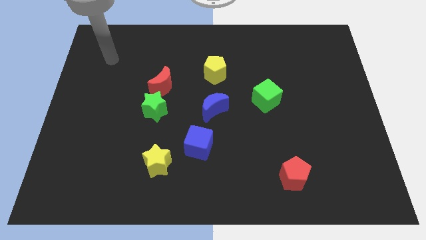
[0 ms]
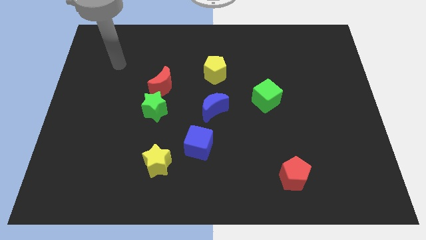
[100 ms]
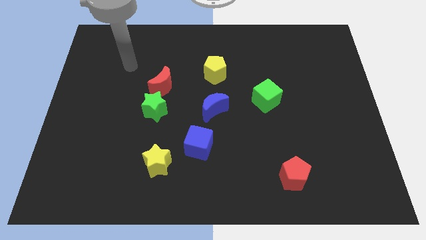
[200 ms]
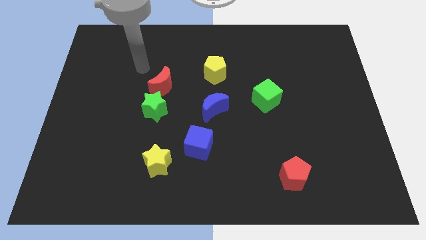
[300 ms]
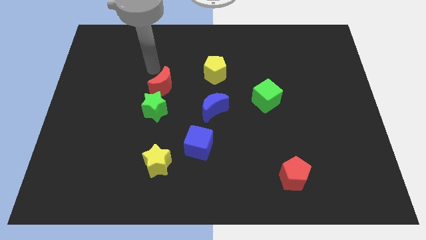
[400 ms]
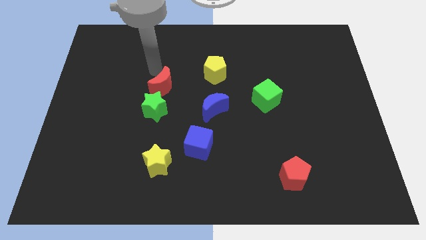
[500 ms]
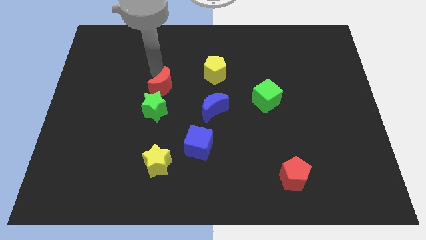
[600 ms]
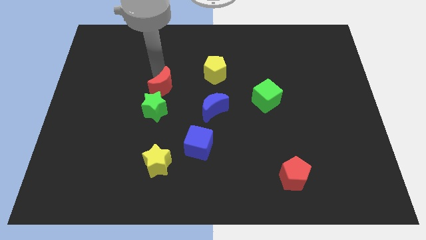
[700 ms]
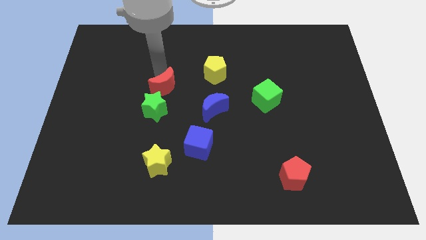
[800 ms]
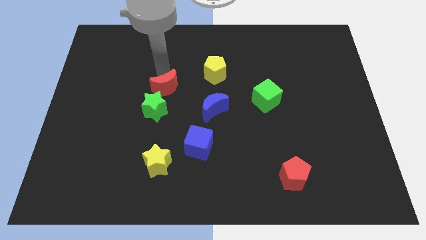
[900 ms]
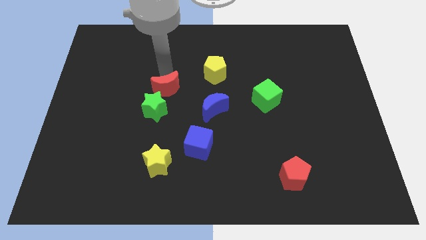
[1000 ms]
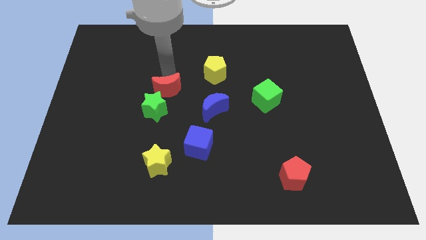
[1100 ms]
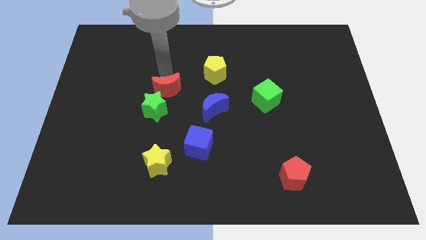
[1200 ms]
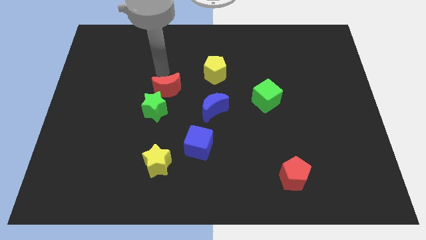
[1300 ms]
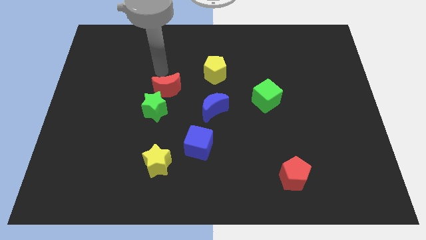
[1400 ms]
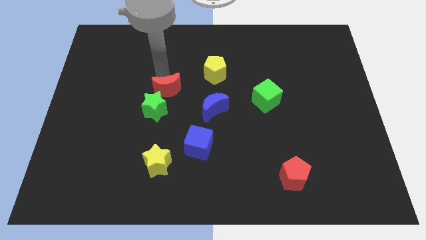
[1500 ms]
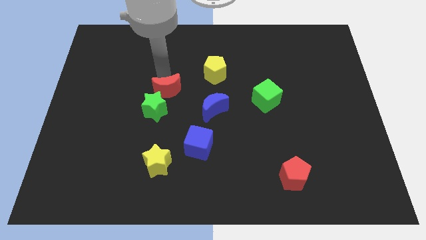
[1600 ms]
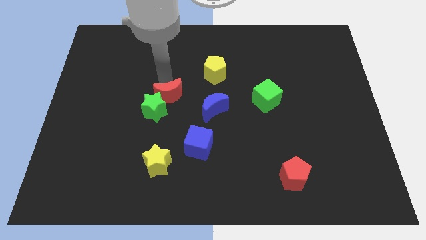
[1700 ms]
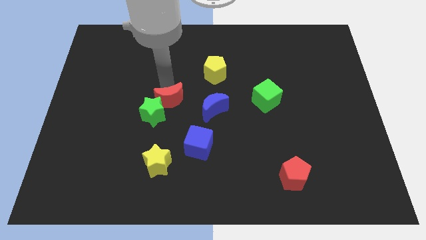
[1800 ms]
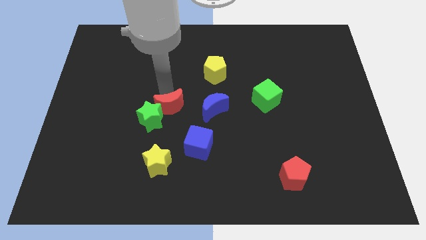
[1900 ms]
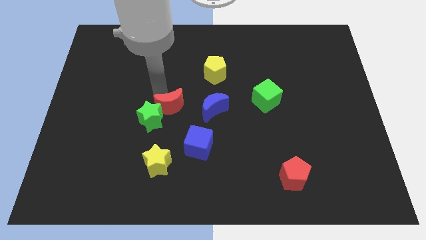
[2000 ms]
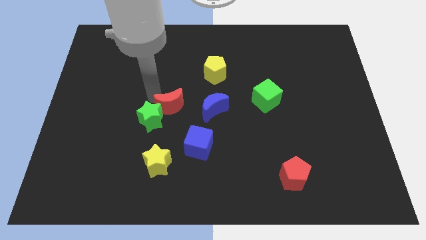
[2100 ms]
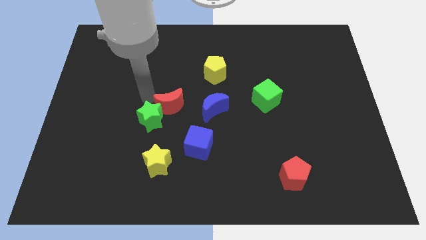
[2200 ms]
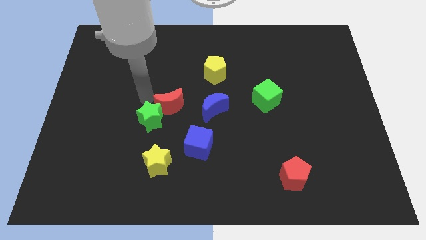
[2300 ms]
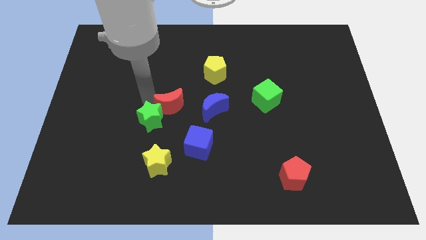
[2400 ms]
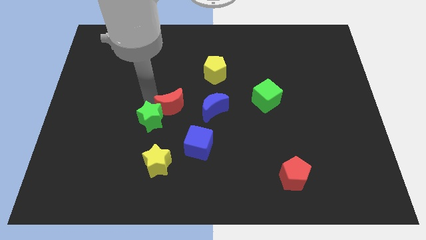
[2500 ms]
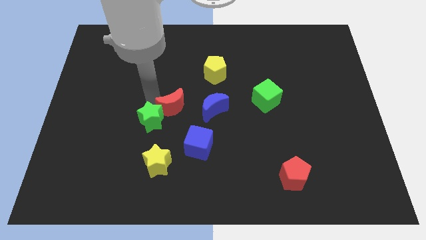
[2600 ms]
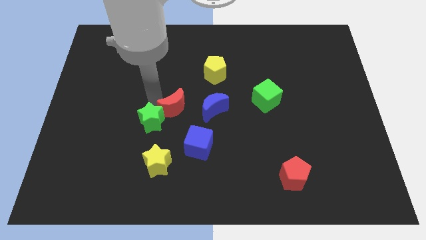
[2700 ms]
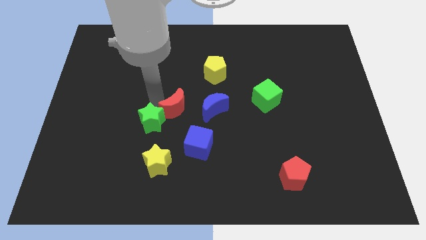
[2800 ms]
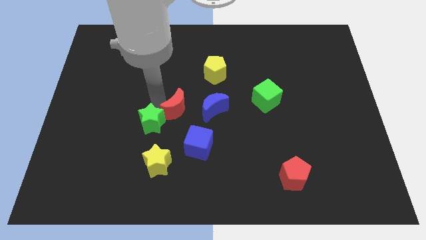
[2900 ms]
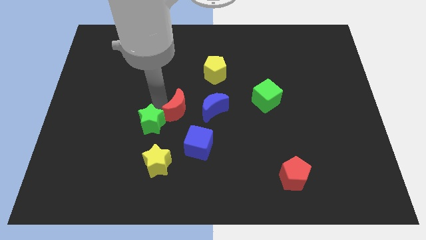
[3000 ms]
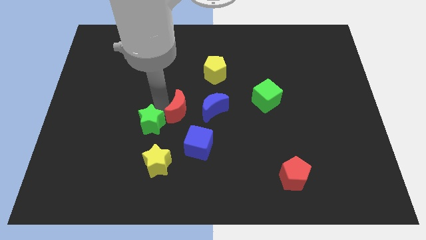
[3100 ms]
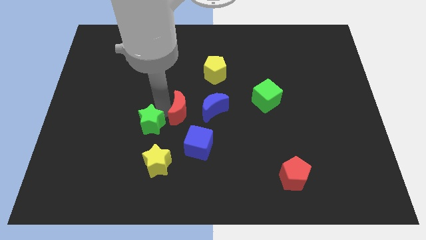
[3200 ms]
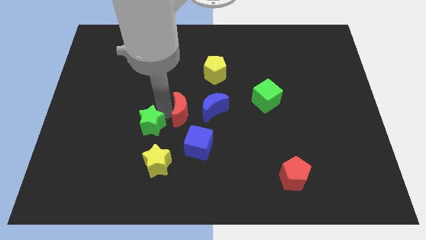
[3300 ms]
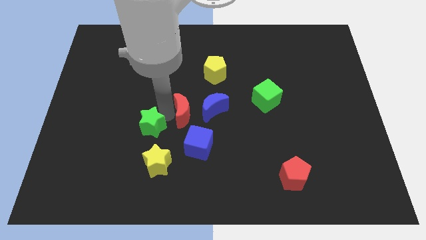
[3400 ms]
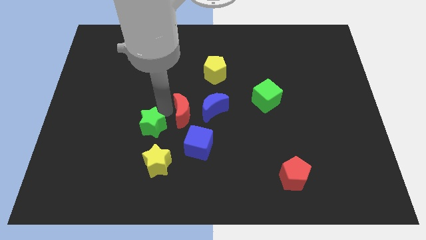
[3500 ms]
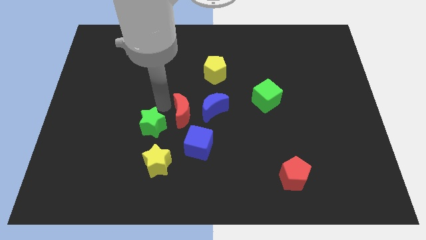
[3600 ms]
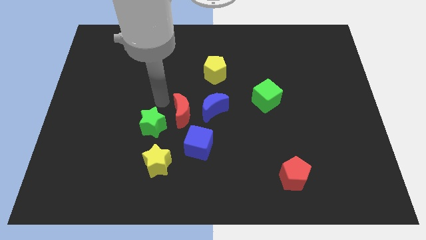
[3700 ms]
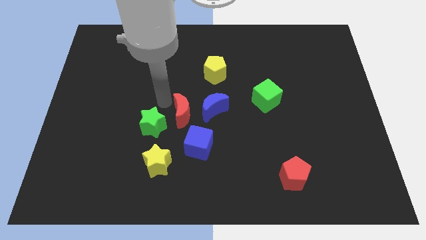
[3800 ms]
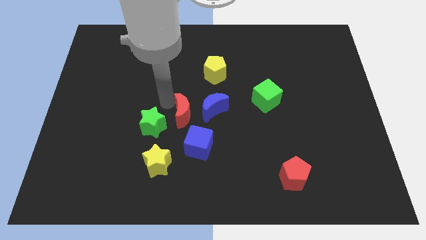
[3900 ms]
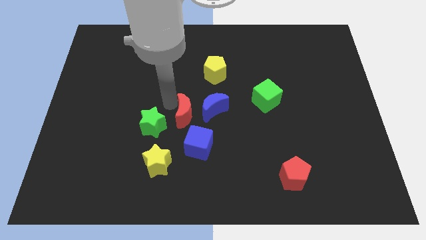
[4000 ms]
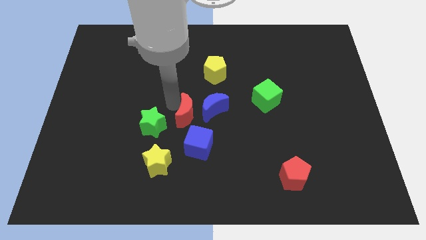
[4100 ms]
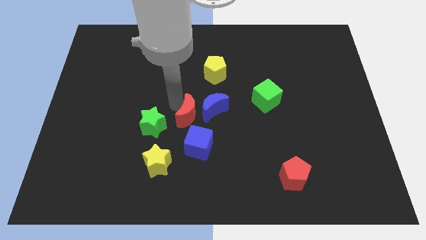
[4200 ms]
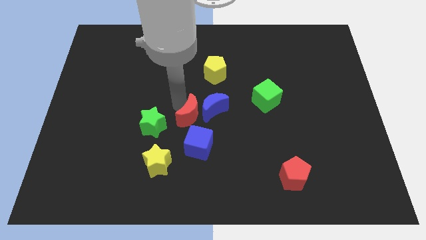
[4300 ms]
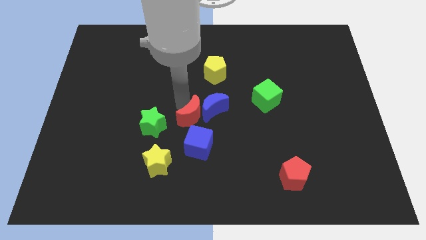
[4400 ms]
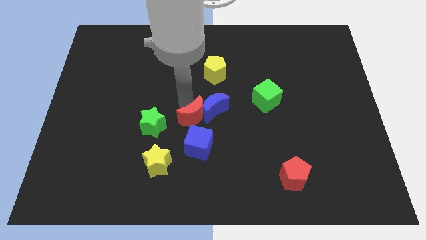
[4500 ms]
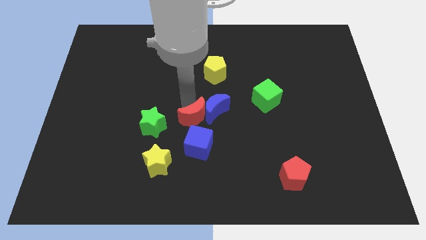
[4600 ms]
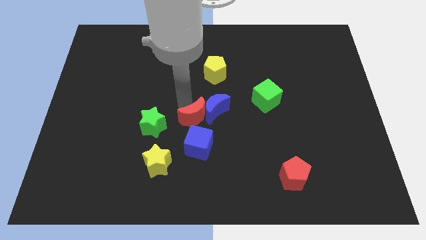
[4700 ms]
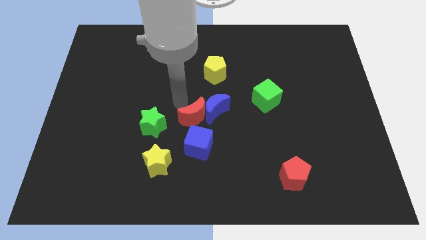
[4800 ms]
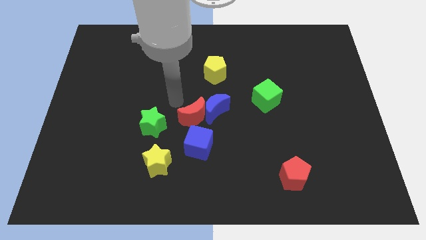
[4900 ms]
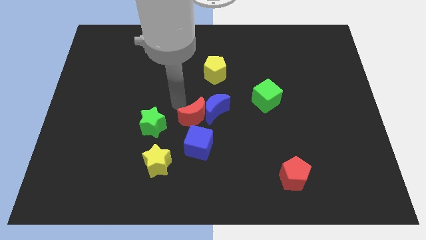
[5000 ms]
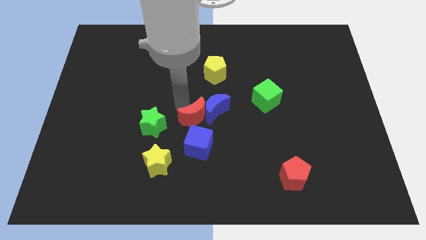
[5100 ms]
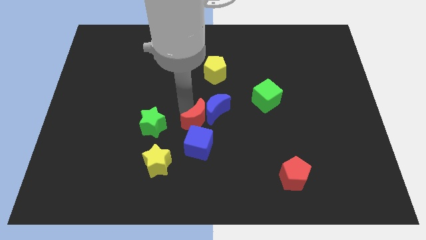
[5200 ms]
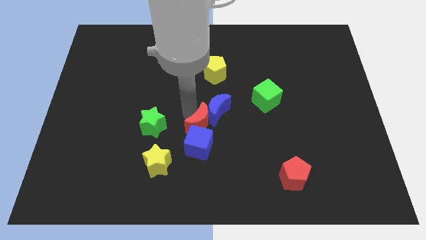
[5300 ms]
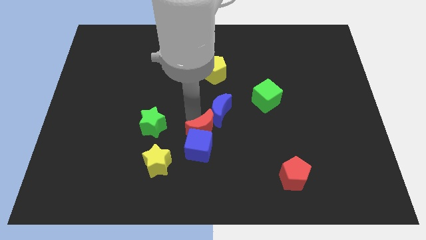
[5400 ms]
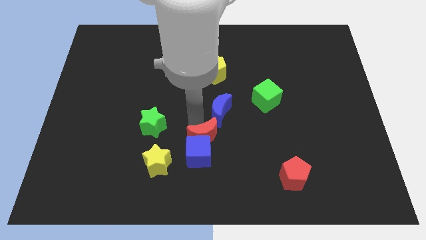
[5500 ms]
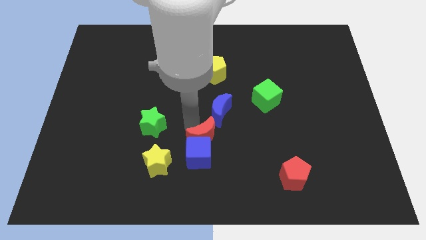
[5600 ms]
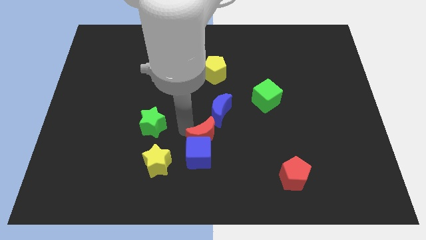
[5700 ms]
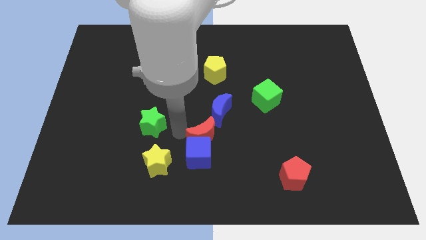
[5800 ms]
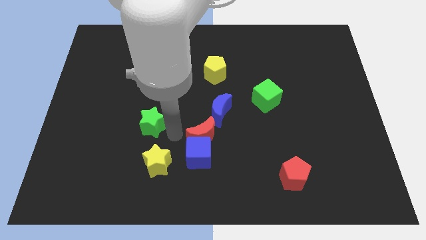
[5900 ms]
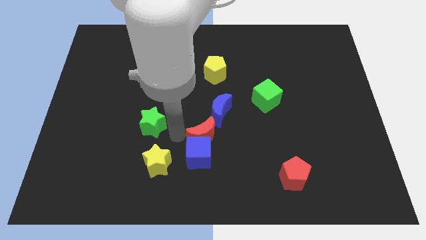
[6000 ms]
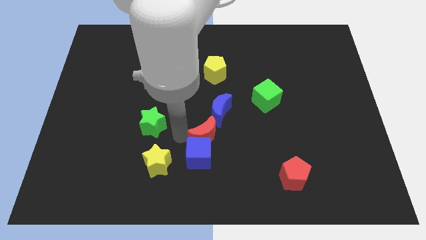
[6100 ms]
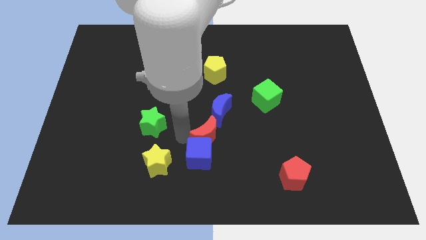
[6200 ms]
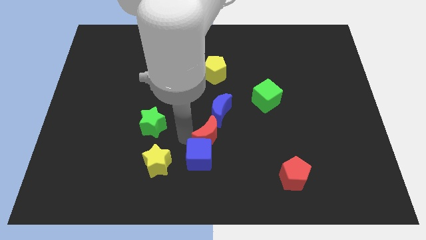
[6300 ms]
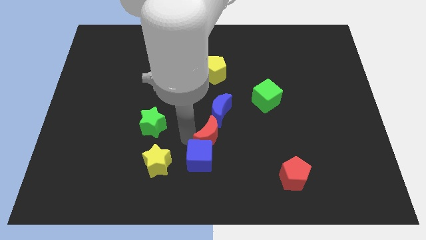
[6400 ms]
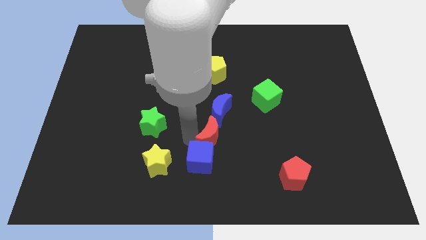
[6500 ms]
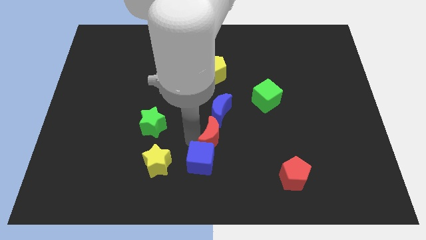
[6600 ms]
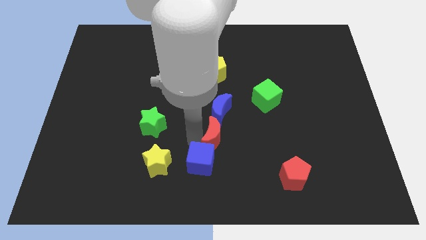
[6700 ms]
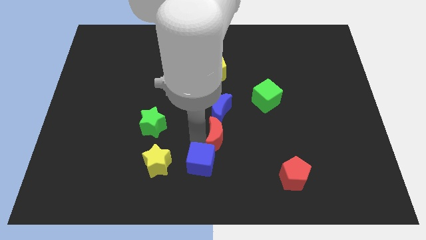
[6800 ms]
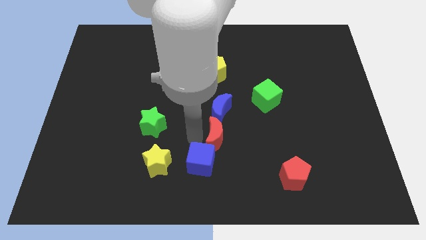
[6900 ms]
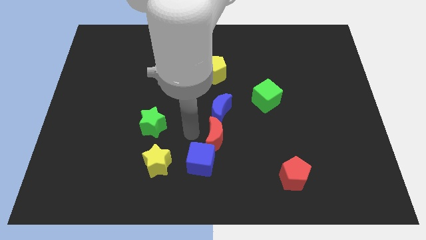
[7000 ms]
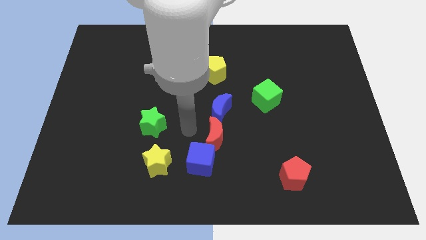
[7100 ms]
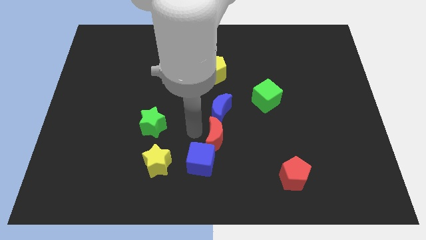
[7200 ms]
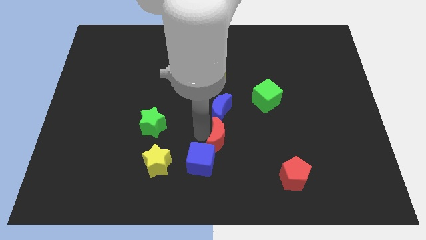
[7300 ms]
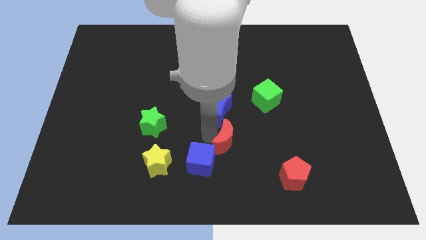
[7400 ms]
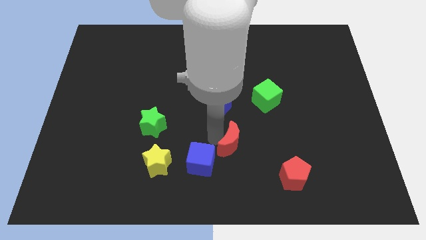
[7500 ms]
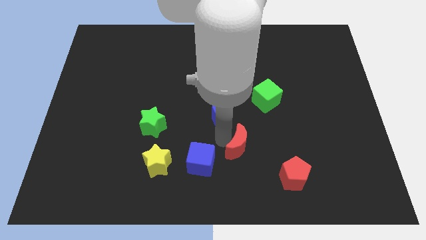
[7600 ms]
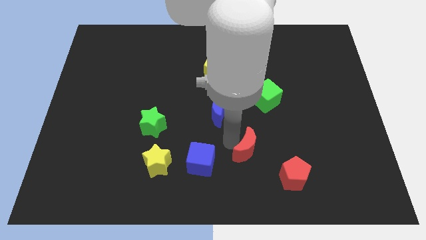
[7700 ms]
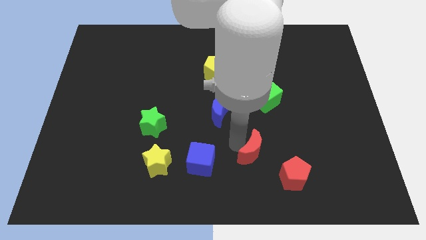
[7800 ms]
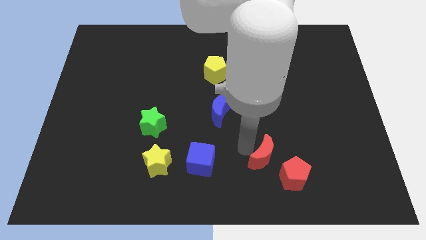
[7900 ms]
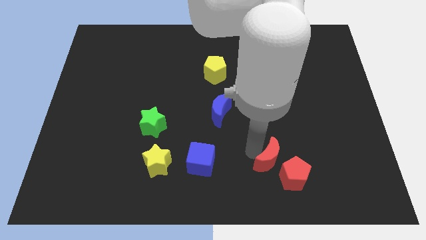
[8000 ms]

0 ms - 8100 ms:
push the red moon to the red pentagon
